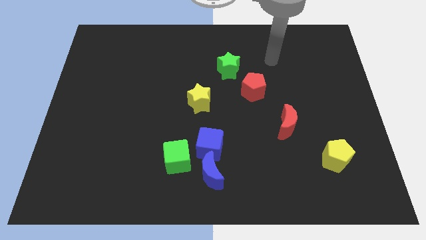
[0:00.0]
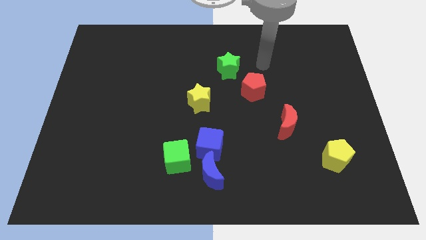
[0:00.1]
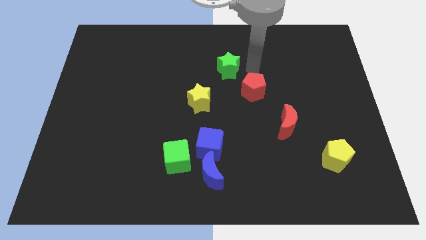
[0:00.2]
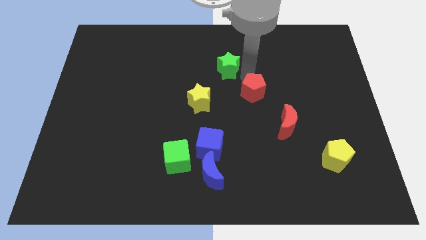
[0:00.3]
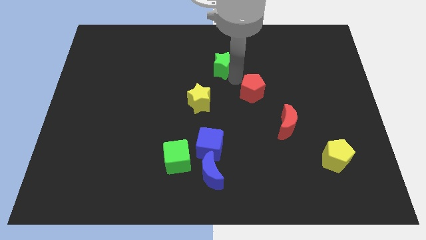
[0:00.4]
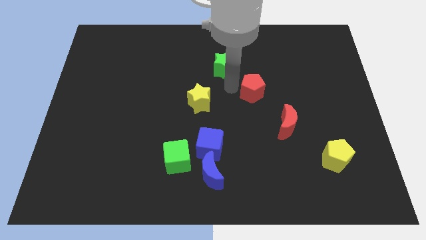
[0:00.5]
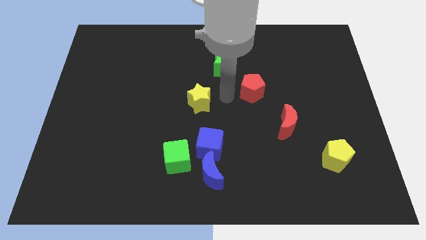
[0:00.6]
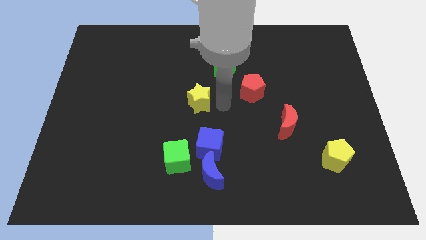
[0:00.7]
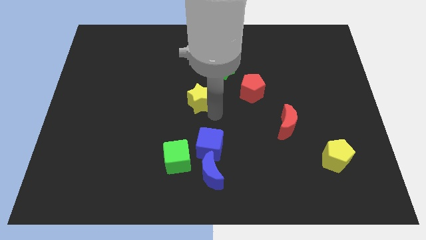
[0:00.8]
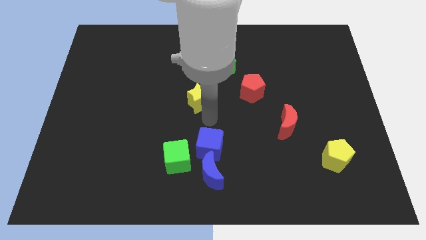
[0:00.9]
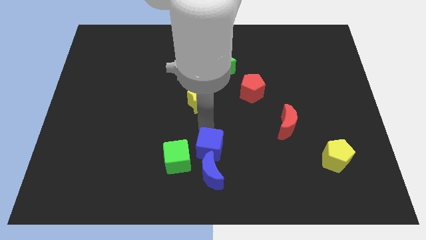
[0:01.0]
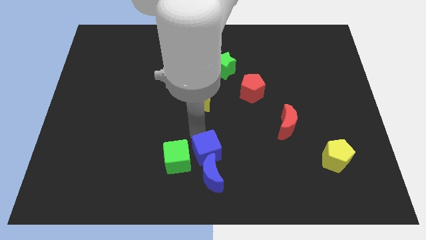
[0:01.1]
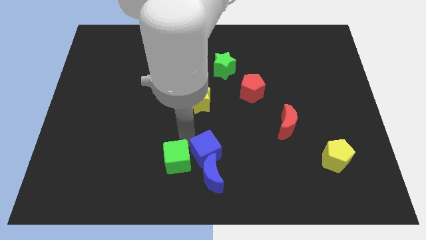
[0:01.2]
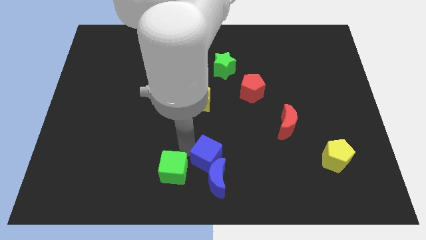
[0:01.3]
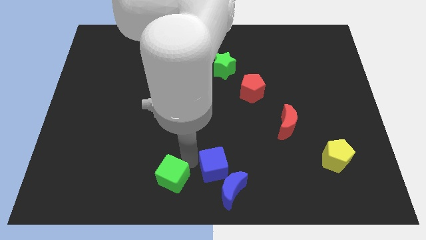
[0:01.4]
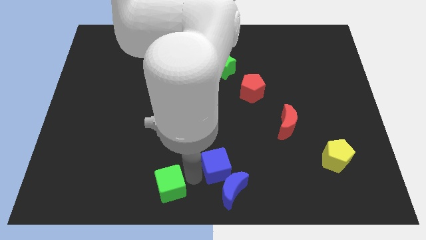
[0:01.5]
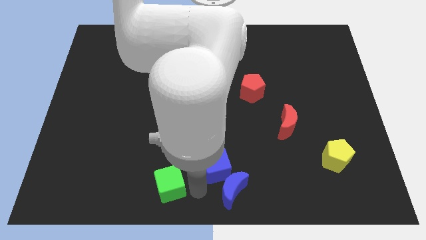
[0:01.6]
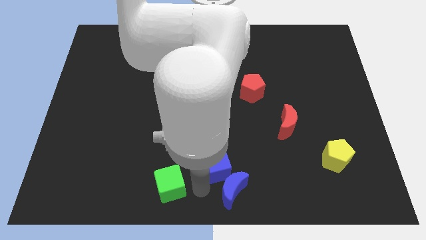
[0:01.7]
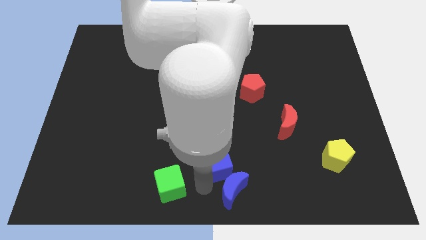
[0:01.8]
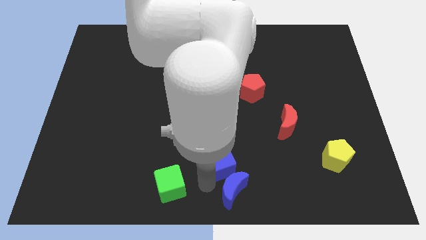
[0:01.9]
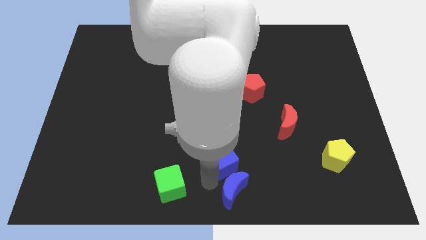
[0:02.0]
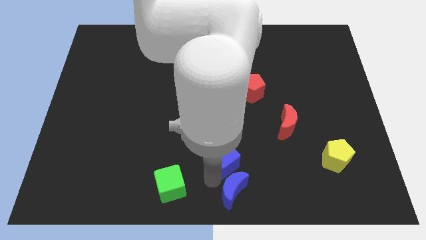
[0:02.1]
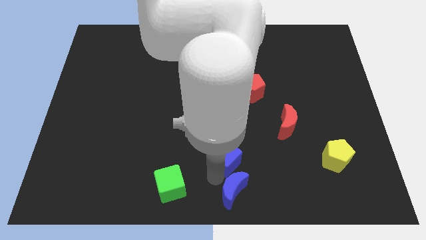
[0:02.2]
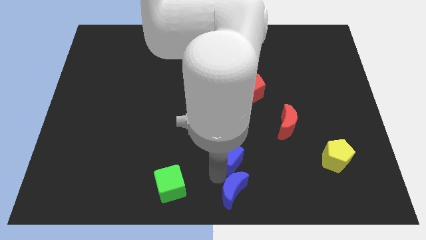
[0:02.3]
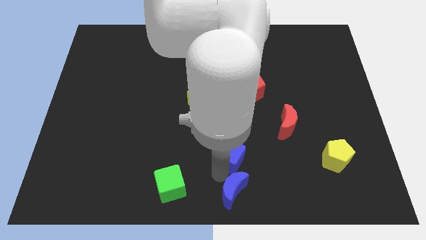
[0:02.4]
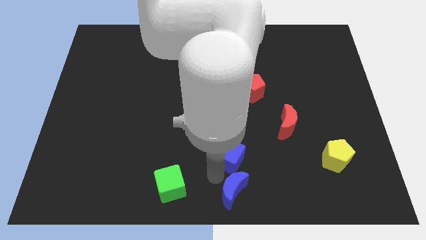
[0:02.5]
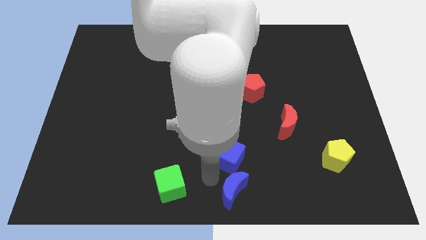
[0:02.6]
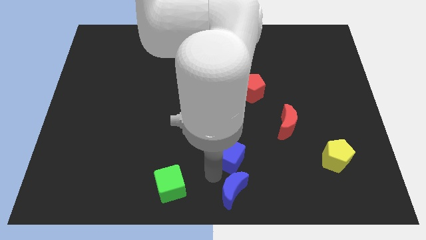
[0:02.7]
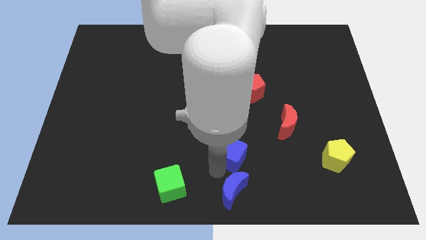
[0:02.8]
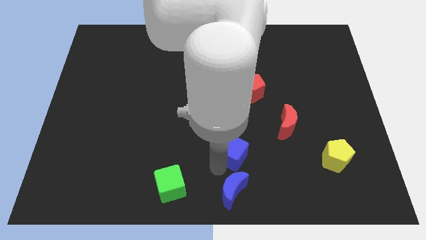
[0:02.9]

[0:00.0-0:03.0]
pull the blue cube apart from the blue moon and green cube

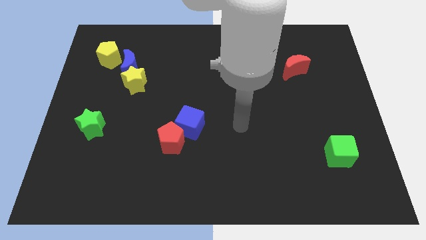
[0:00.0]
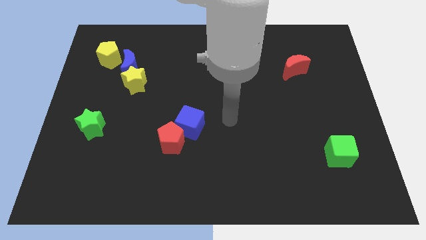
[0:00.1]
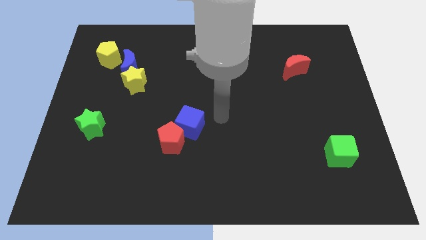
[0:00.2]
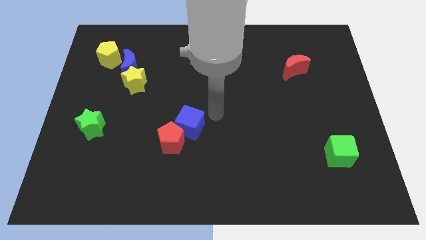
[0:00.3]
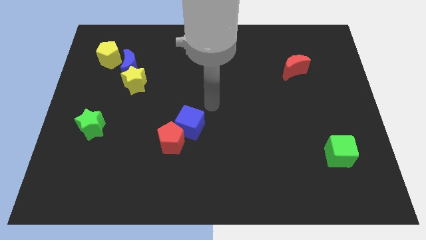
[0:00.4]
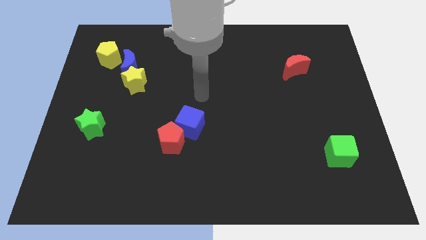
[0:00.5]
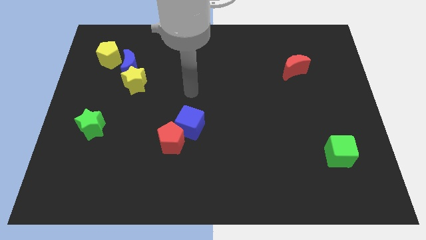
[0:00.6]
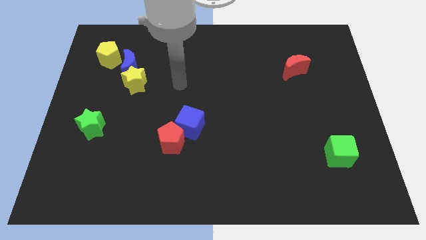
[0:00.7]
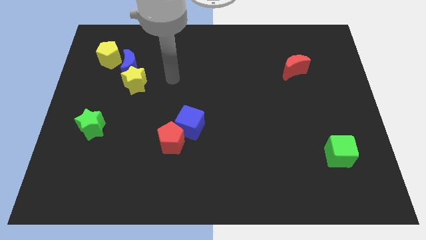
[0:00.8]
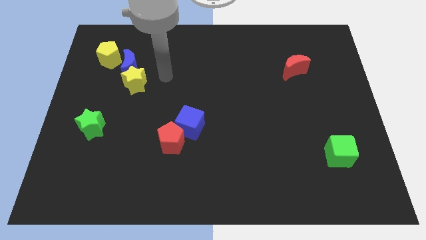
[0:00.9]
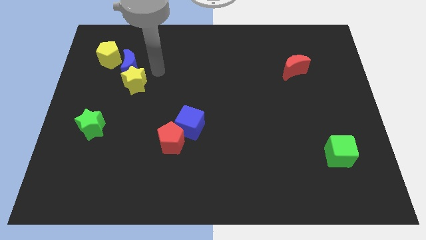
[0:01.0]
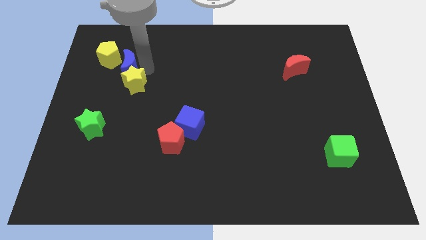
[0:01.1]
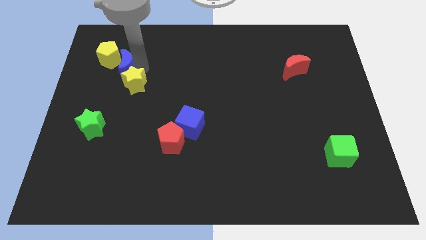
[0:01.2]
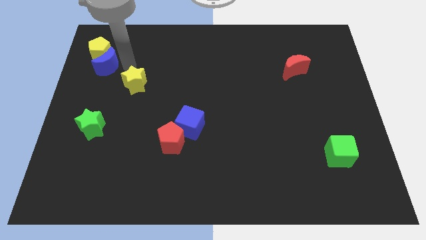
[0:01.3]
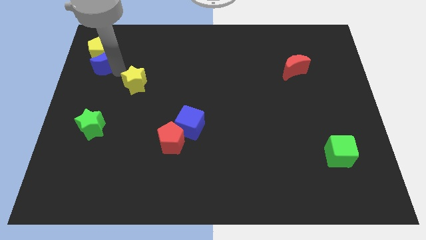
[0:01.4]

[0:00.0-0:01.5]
move the yellow star away from the blue moon

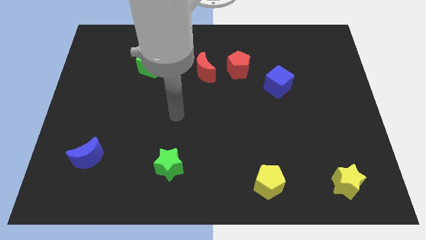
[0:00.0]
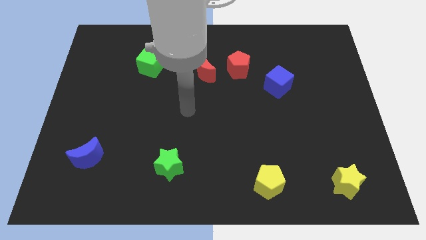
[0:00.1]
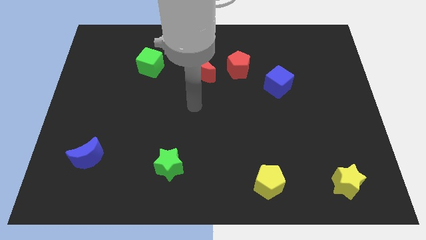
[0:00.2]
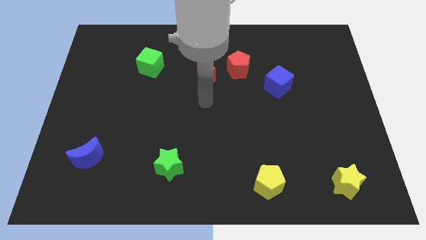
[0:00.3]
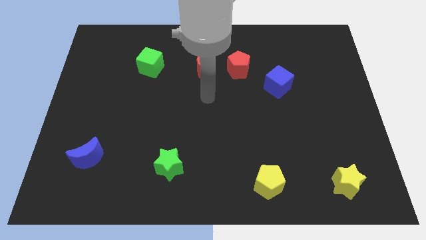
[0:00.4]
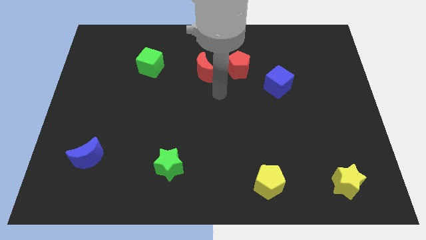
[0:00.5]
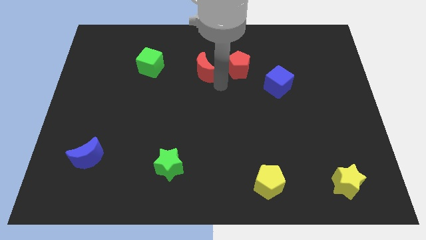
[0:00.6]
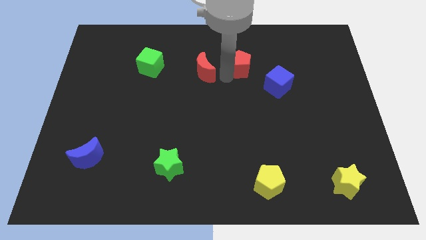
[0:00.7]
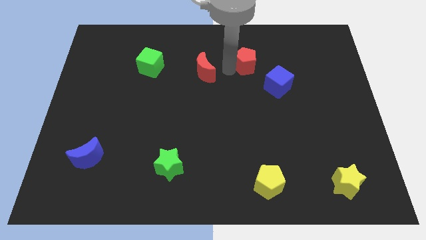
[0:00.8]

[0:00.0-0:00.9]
separate the red moon from the red pentagon

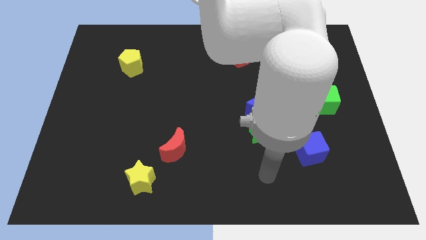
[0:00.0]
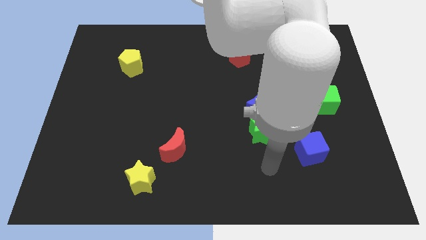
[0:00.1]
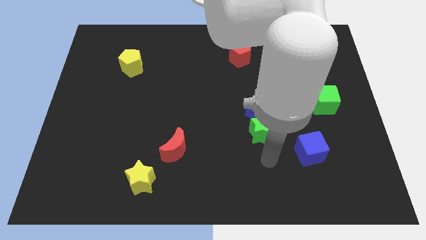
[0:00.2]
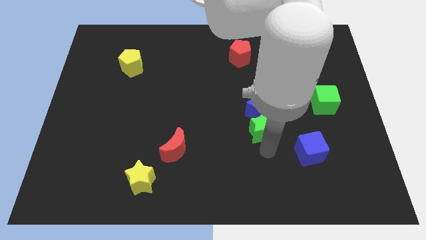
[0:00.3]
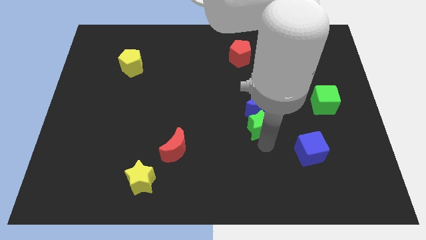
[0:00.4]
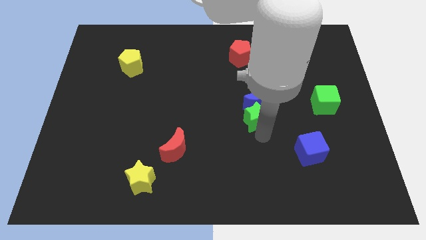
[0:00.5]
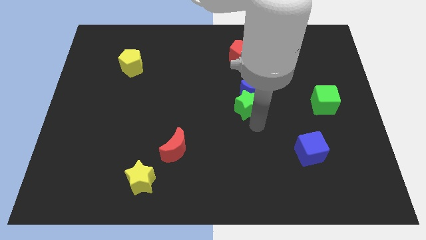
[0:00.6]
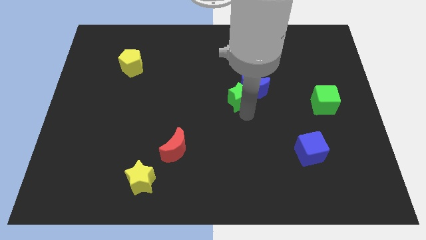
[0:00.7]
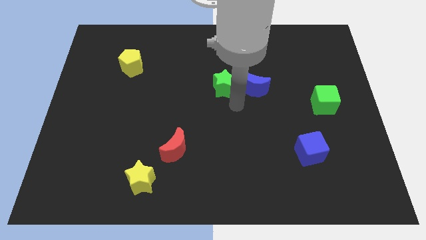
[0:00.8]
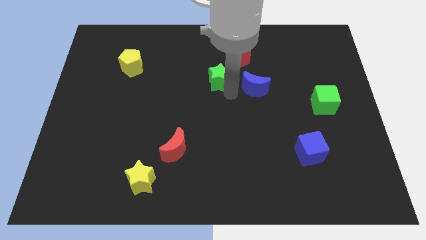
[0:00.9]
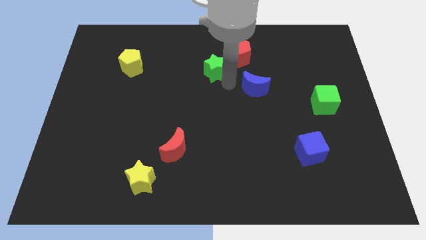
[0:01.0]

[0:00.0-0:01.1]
pull the blue moon apart from the green star

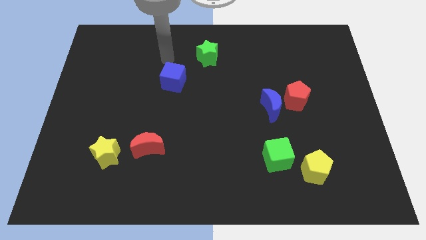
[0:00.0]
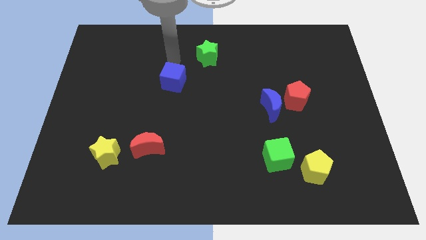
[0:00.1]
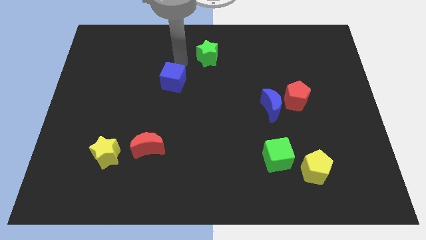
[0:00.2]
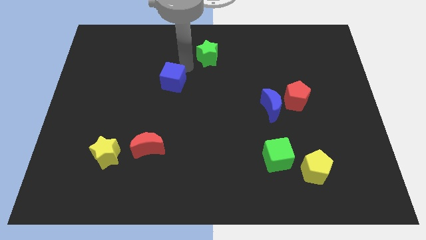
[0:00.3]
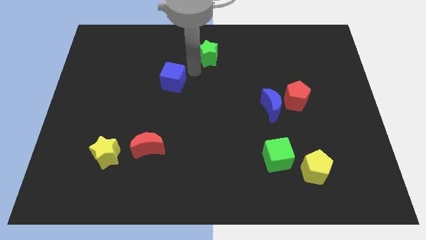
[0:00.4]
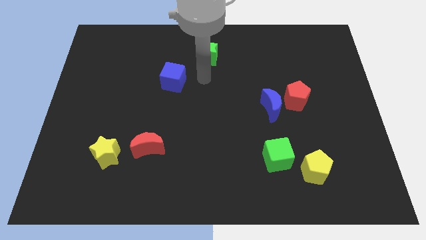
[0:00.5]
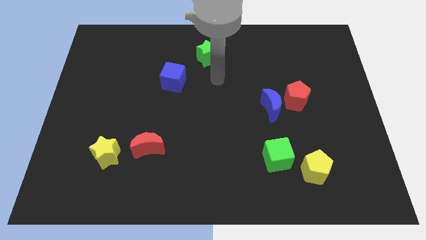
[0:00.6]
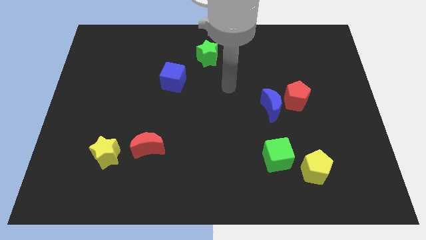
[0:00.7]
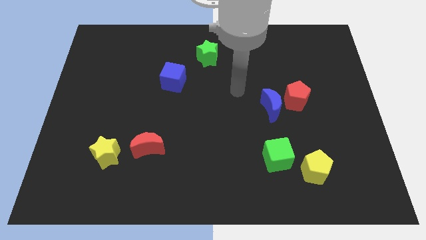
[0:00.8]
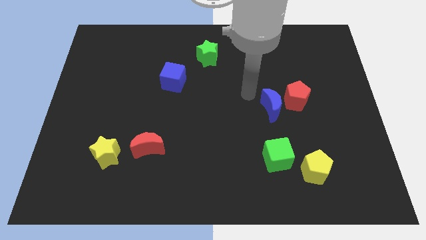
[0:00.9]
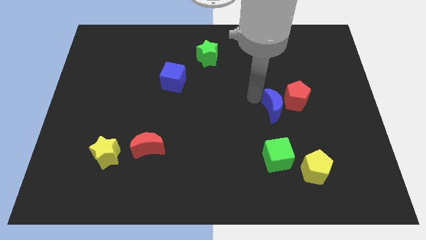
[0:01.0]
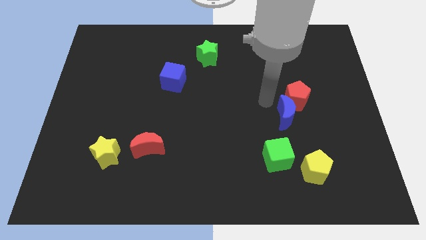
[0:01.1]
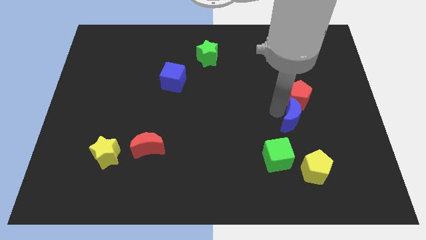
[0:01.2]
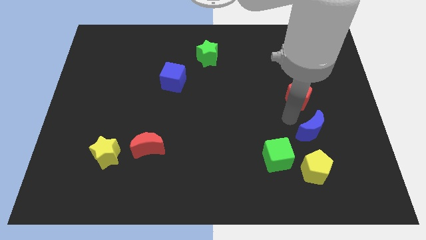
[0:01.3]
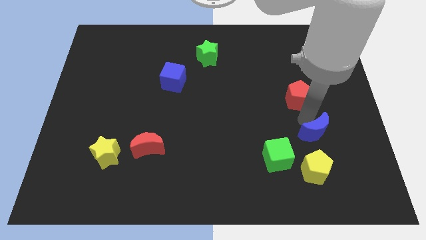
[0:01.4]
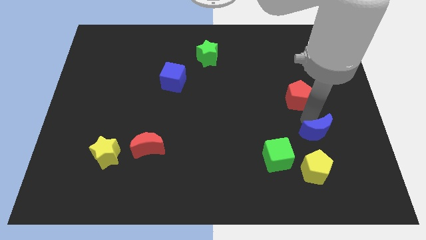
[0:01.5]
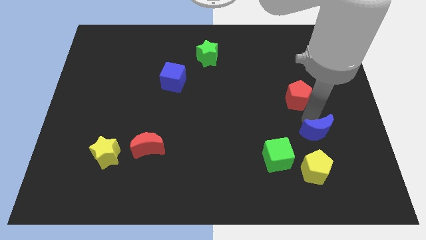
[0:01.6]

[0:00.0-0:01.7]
move the red pentagon away from the blue moon

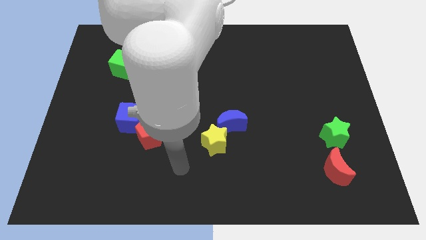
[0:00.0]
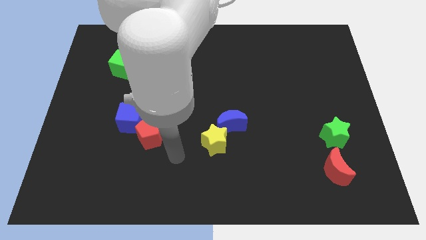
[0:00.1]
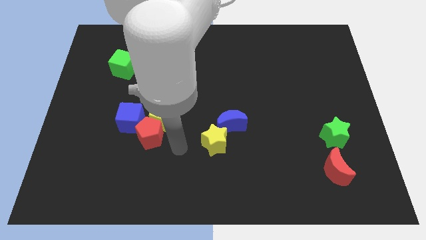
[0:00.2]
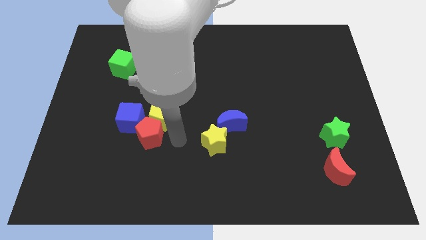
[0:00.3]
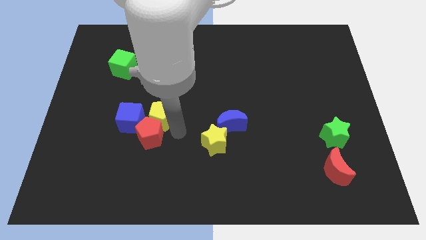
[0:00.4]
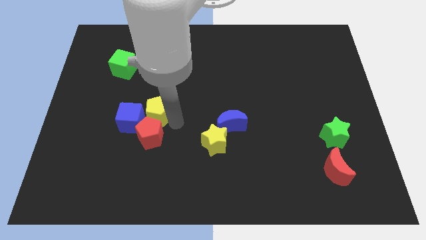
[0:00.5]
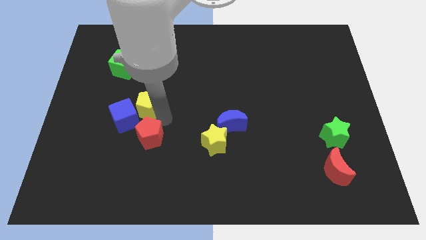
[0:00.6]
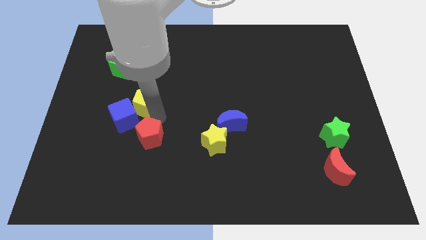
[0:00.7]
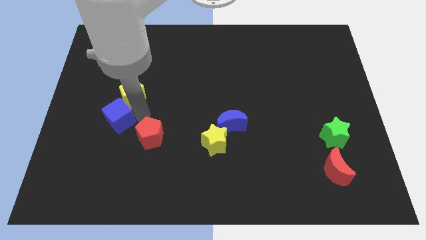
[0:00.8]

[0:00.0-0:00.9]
separate the red pentagon from the yellow pentagon and blue cube

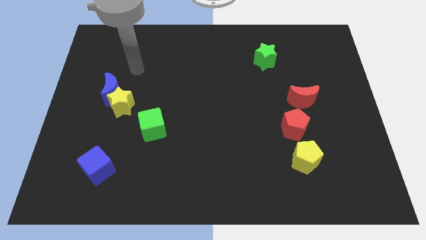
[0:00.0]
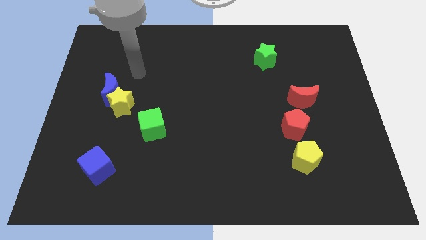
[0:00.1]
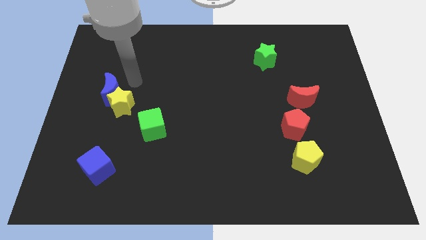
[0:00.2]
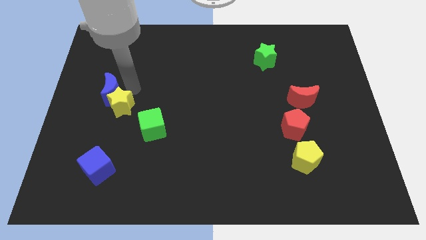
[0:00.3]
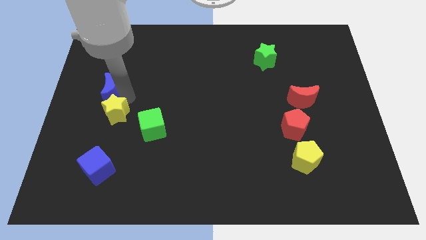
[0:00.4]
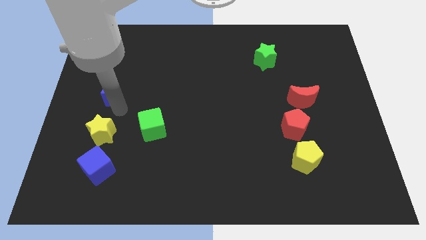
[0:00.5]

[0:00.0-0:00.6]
separate the blue moon from the yellow star
